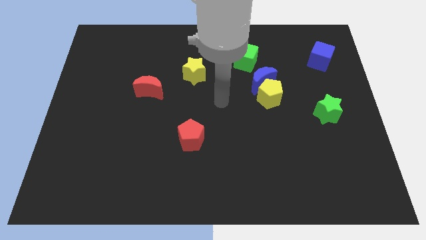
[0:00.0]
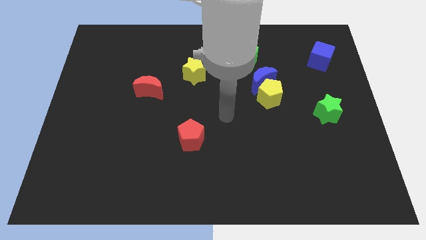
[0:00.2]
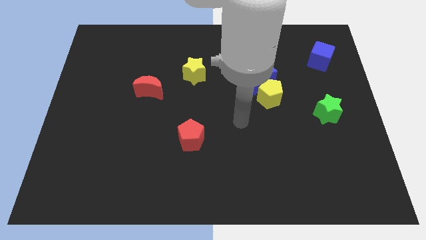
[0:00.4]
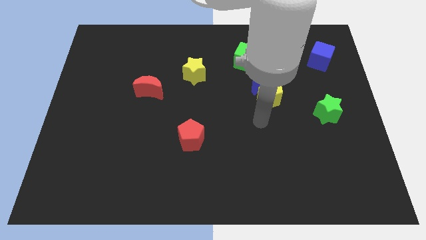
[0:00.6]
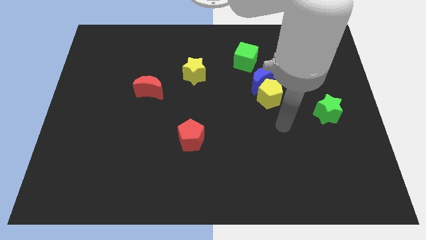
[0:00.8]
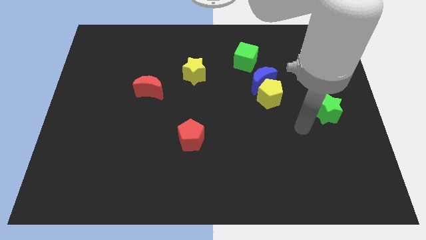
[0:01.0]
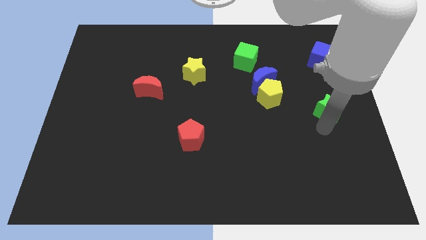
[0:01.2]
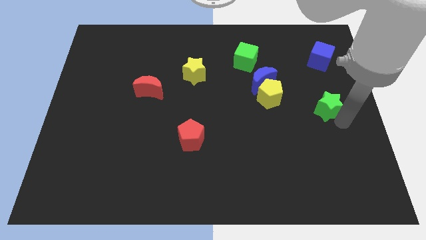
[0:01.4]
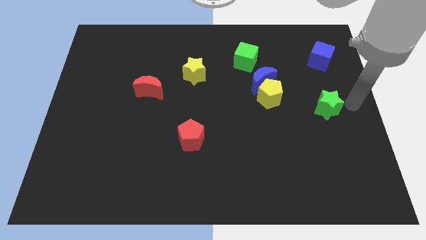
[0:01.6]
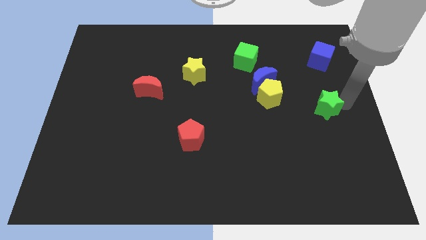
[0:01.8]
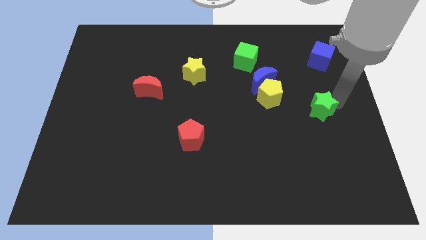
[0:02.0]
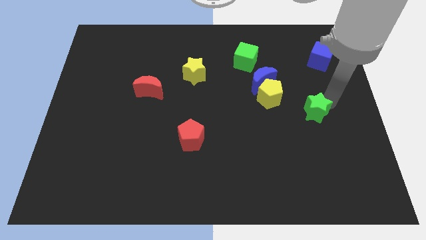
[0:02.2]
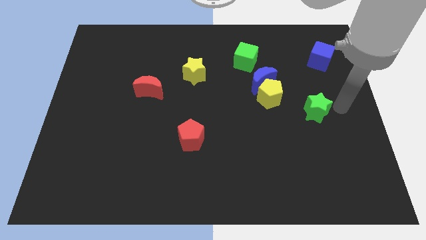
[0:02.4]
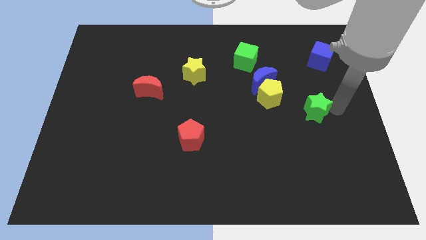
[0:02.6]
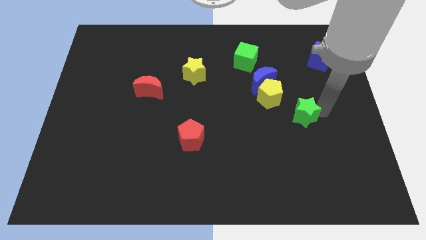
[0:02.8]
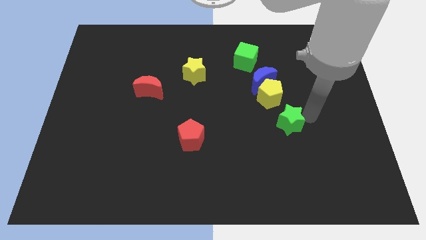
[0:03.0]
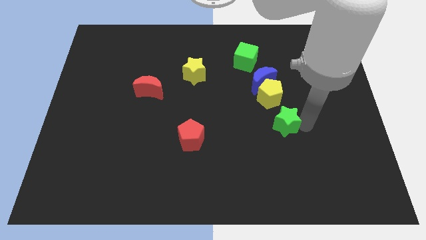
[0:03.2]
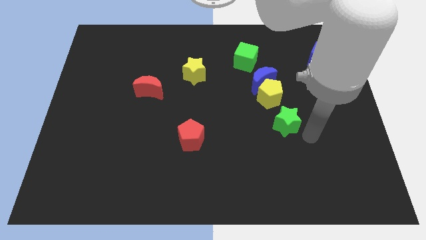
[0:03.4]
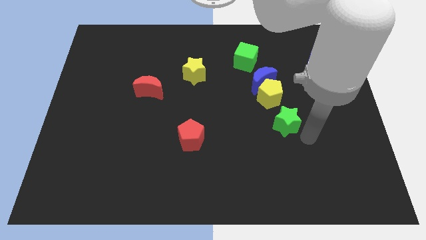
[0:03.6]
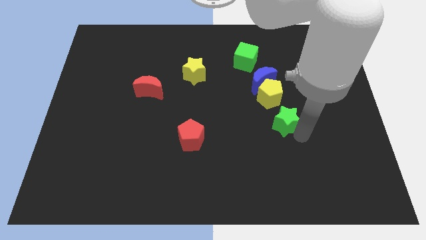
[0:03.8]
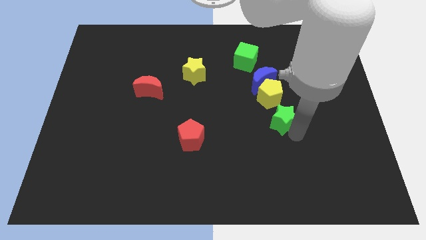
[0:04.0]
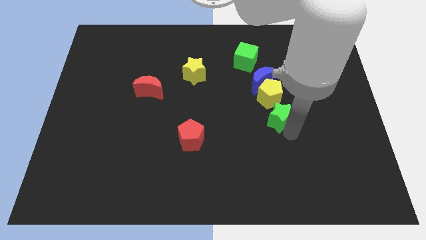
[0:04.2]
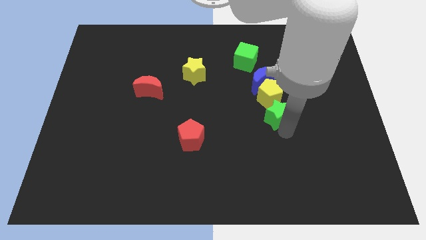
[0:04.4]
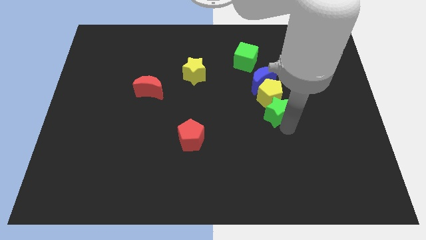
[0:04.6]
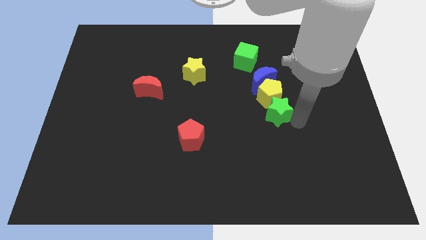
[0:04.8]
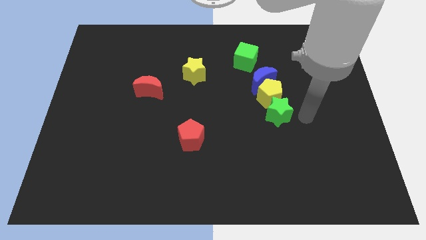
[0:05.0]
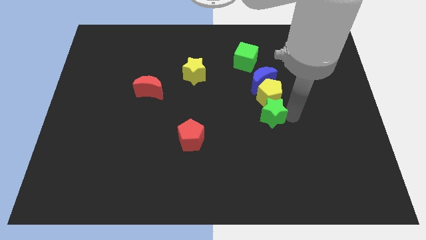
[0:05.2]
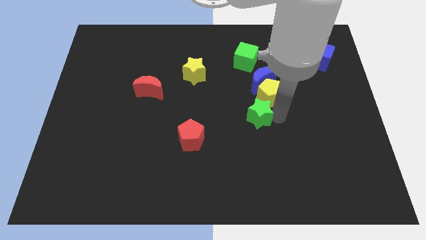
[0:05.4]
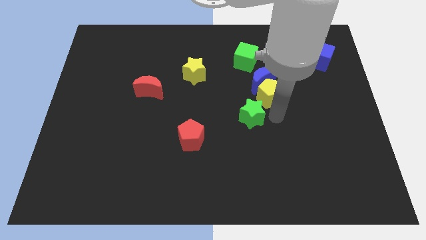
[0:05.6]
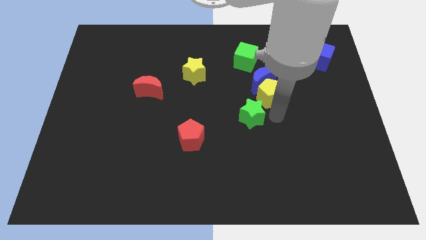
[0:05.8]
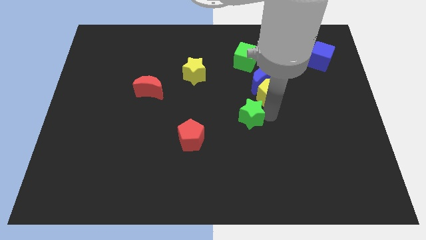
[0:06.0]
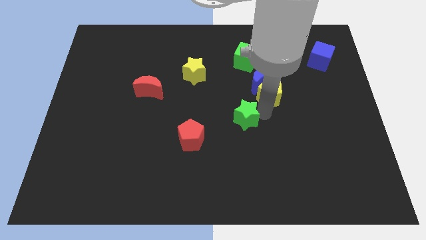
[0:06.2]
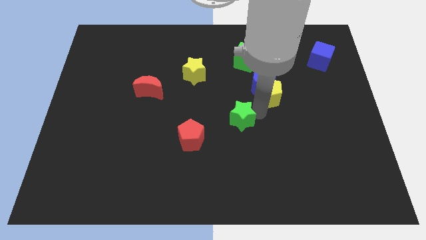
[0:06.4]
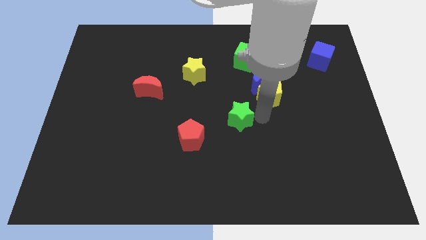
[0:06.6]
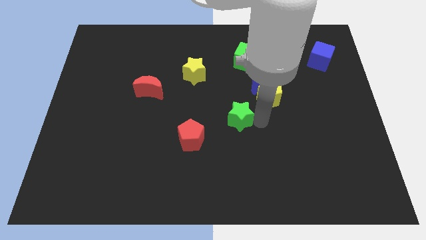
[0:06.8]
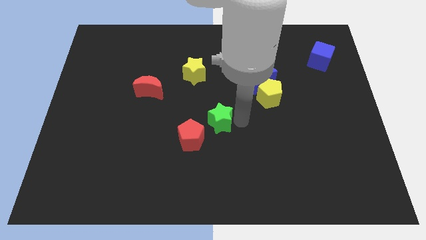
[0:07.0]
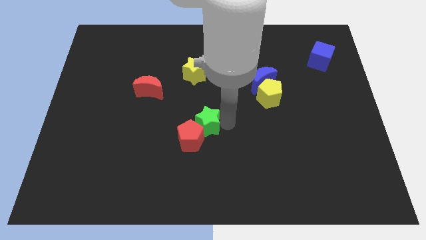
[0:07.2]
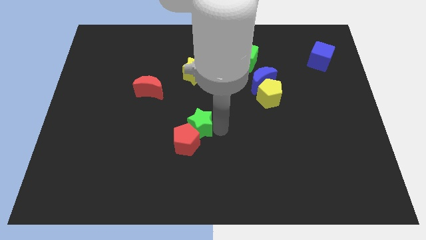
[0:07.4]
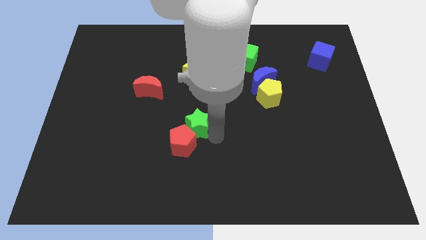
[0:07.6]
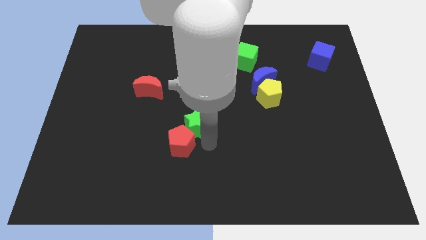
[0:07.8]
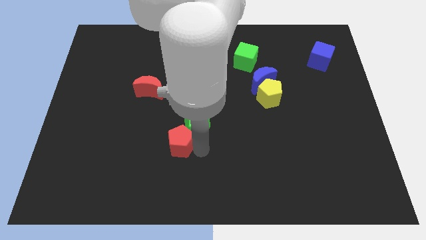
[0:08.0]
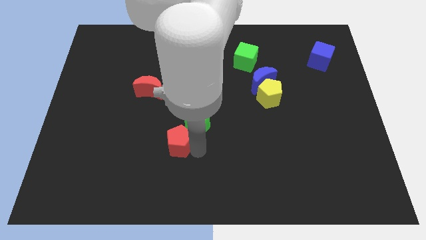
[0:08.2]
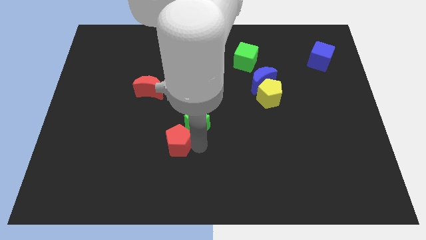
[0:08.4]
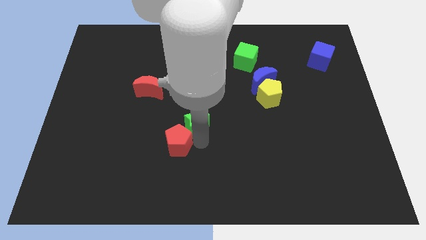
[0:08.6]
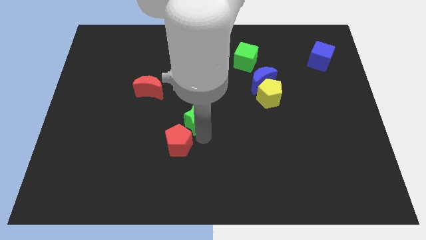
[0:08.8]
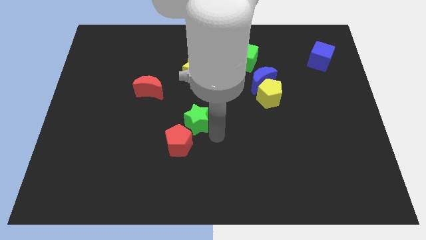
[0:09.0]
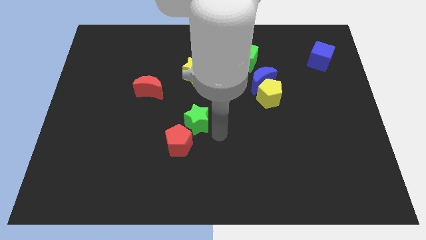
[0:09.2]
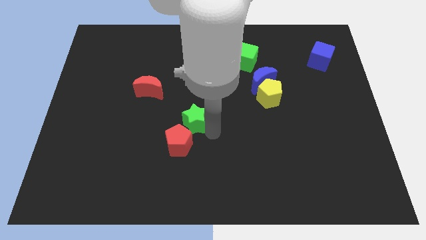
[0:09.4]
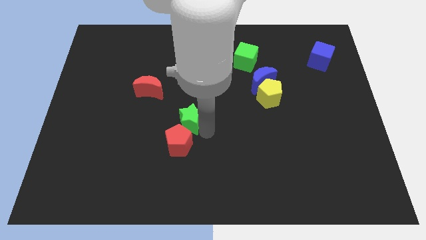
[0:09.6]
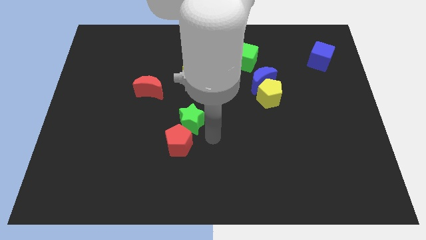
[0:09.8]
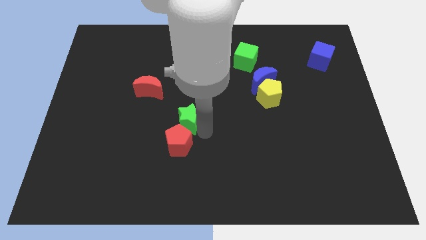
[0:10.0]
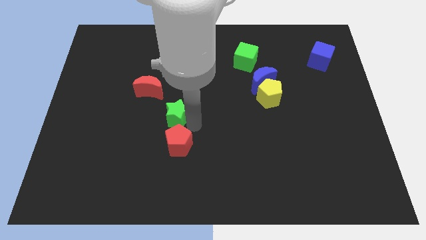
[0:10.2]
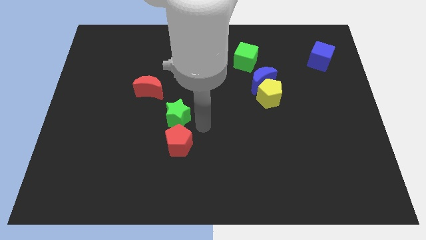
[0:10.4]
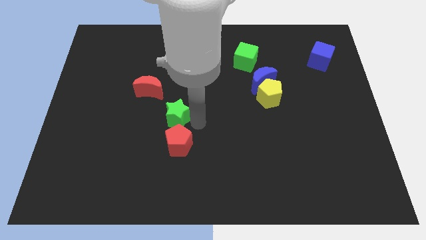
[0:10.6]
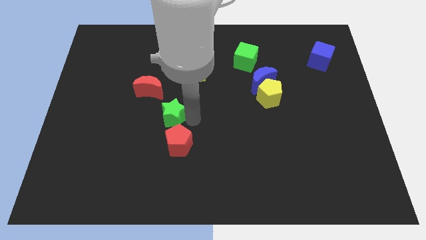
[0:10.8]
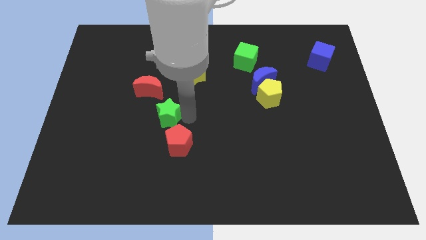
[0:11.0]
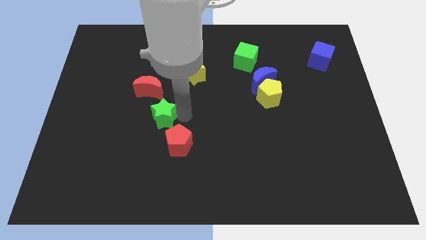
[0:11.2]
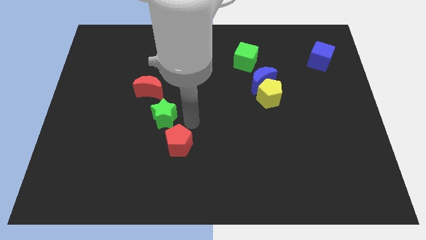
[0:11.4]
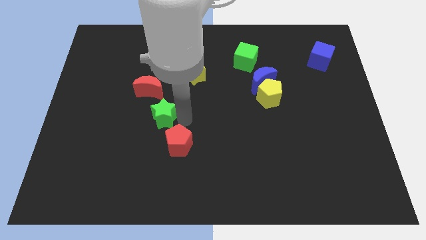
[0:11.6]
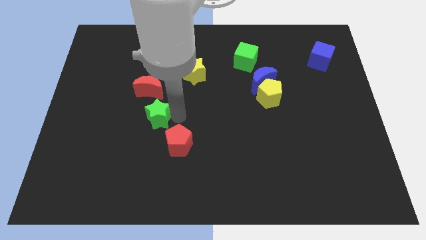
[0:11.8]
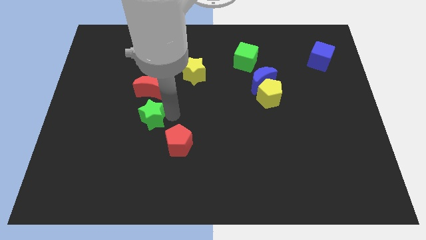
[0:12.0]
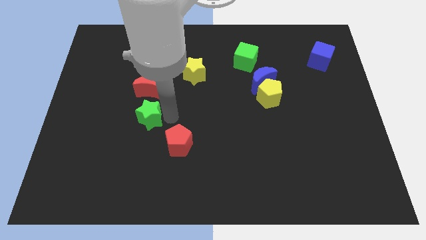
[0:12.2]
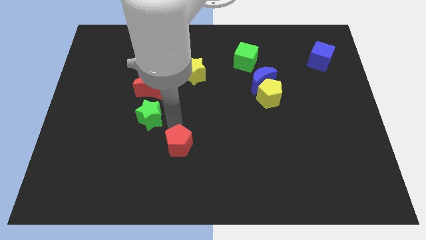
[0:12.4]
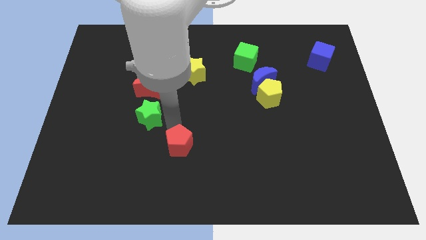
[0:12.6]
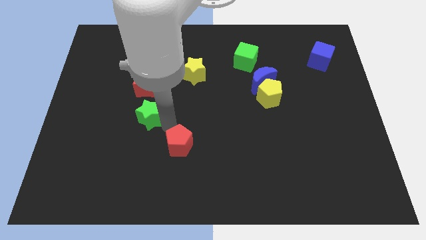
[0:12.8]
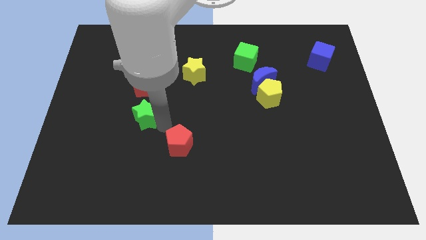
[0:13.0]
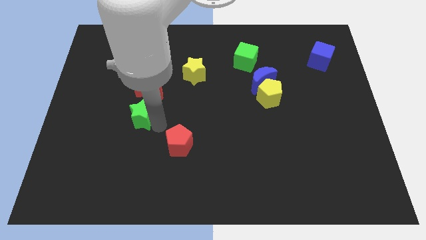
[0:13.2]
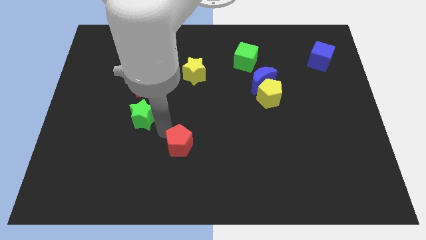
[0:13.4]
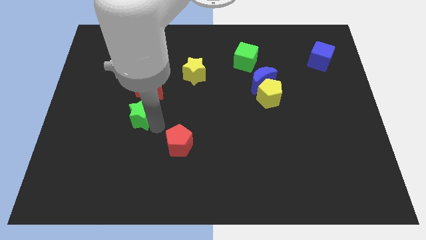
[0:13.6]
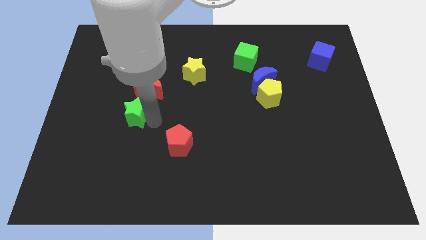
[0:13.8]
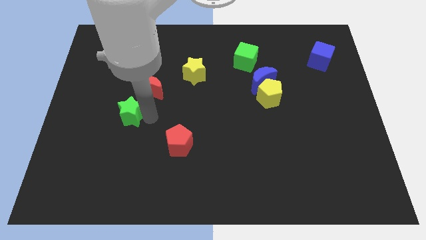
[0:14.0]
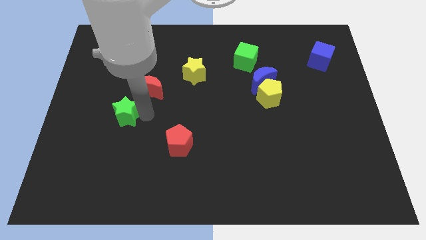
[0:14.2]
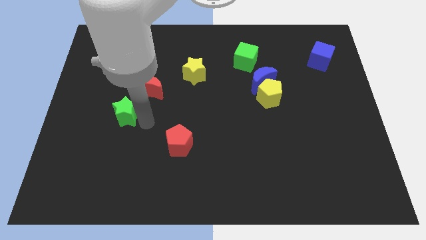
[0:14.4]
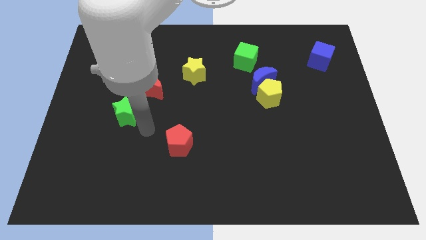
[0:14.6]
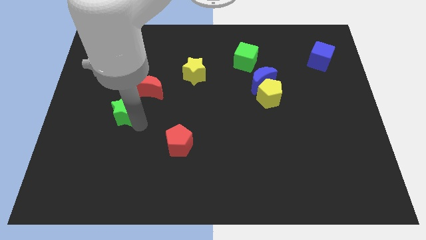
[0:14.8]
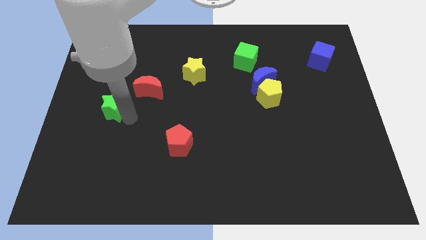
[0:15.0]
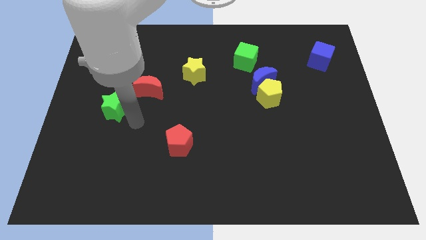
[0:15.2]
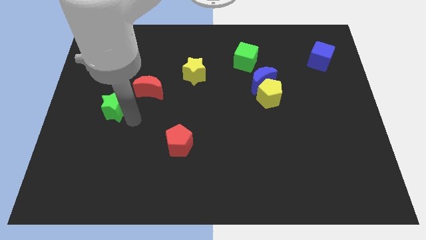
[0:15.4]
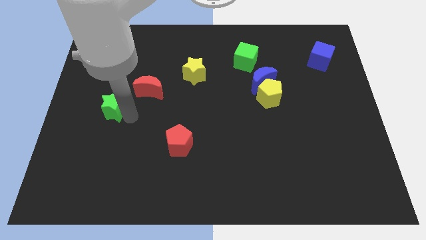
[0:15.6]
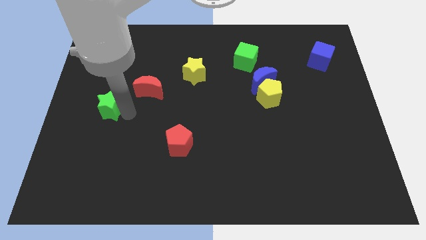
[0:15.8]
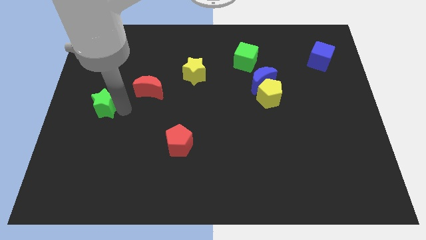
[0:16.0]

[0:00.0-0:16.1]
slide the green star to the center left
